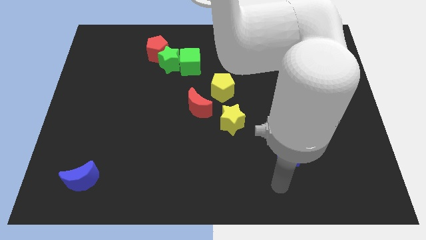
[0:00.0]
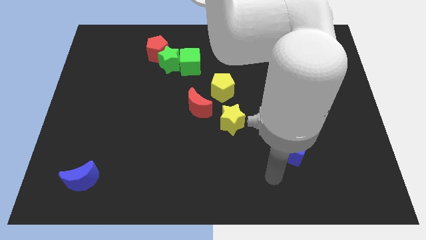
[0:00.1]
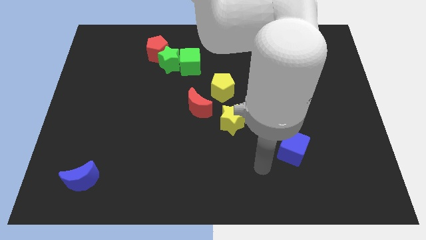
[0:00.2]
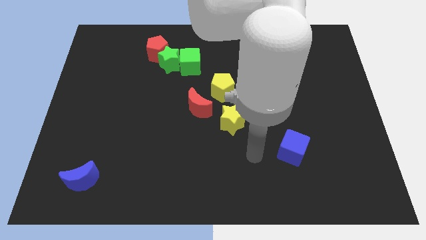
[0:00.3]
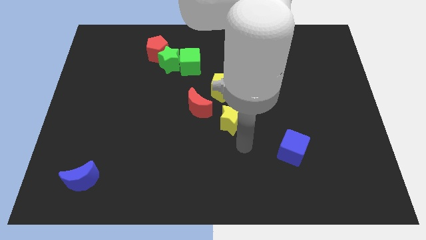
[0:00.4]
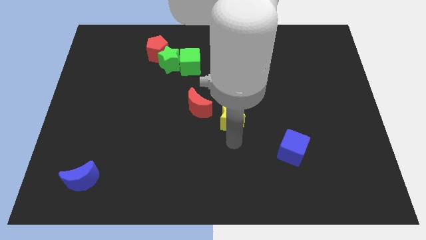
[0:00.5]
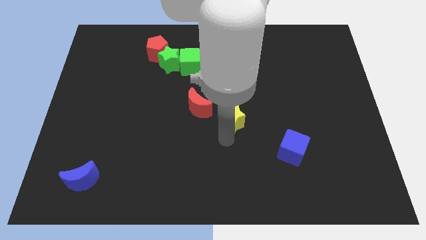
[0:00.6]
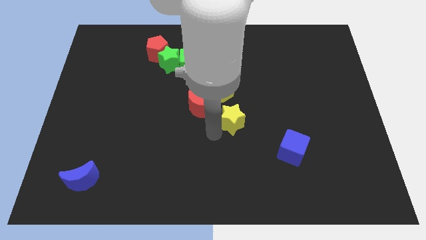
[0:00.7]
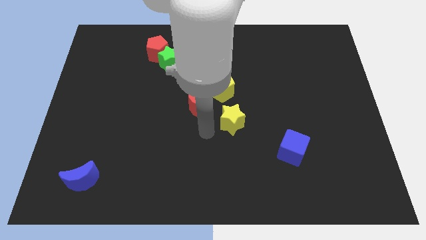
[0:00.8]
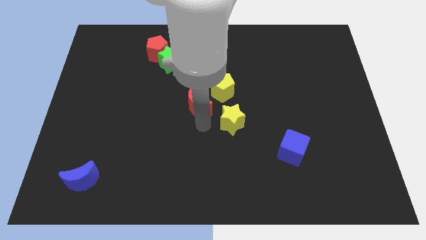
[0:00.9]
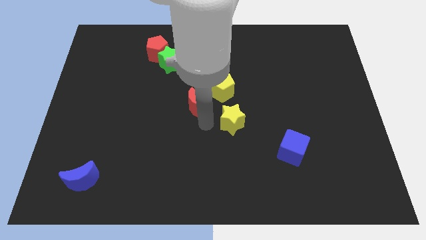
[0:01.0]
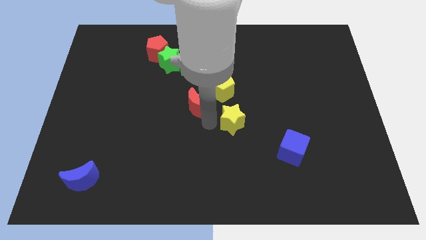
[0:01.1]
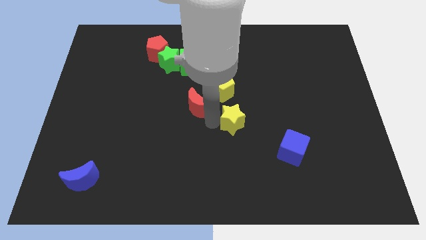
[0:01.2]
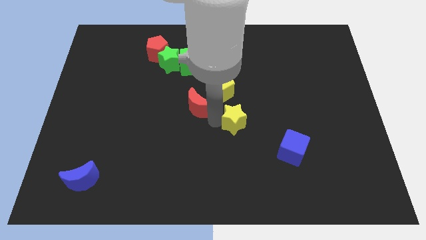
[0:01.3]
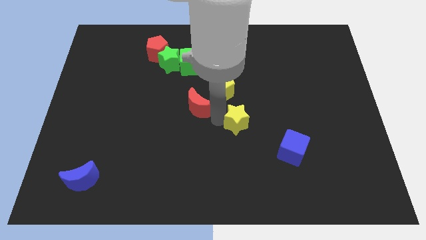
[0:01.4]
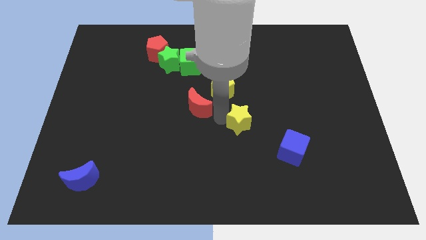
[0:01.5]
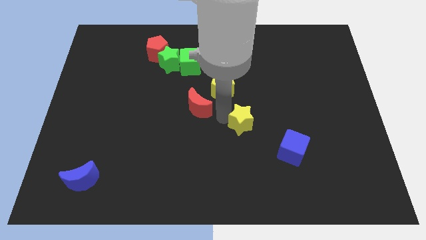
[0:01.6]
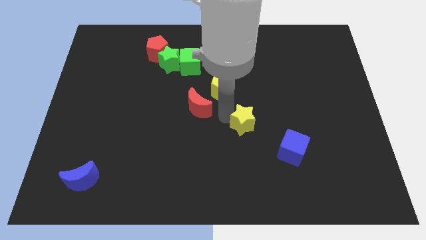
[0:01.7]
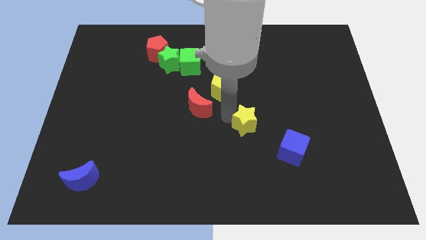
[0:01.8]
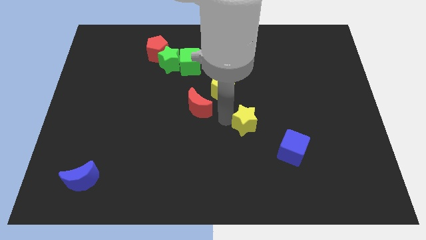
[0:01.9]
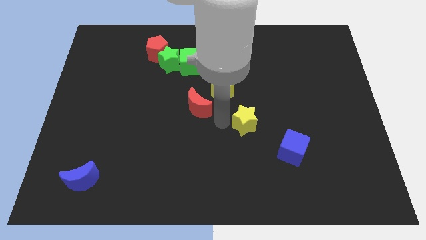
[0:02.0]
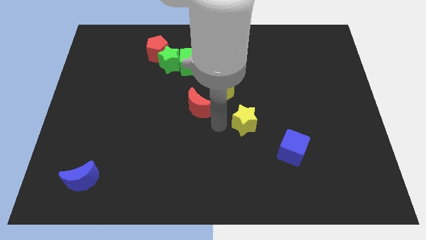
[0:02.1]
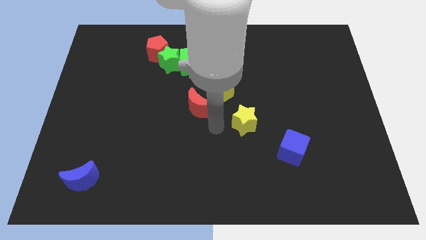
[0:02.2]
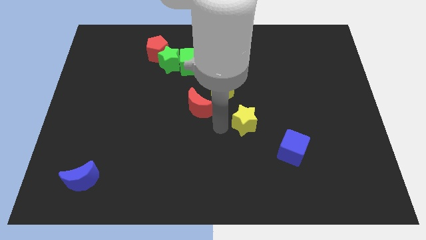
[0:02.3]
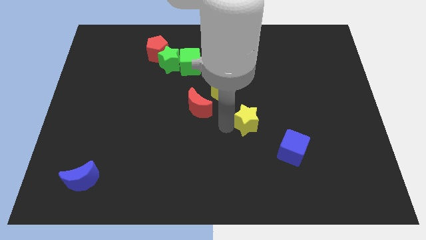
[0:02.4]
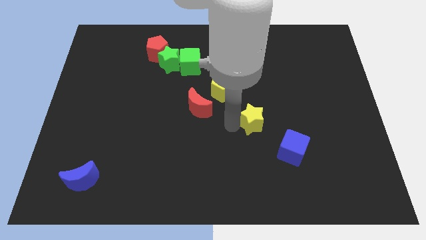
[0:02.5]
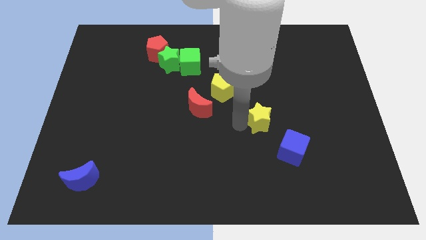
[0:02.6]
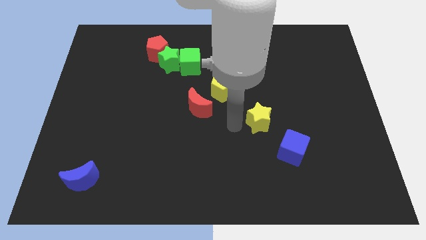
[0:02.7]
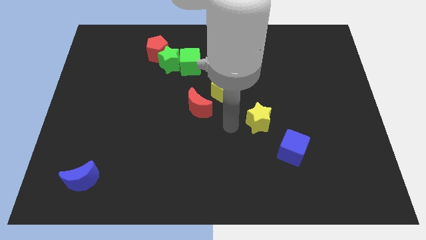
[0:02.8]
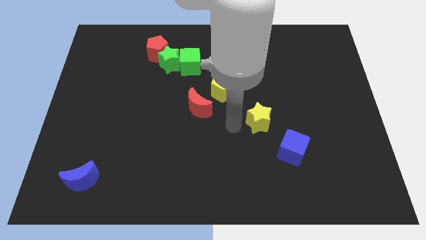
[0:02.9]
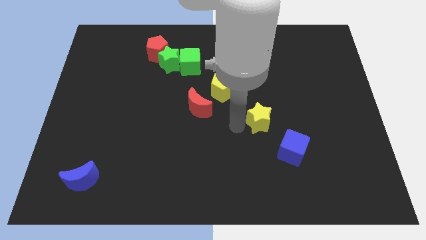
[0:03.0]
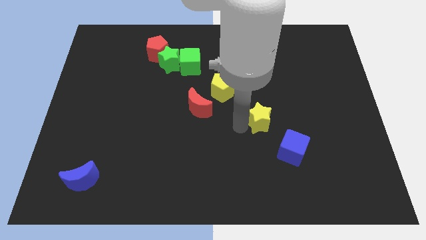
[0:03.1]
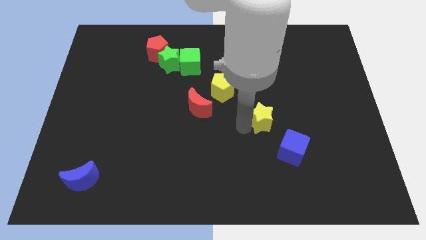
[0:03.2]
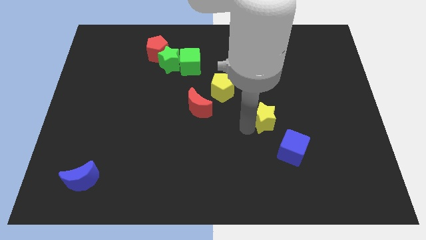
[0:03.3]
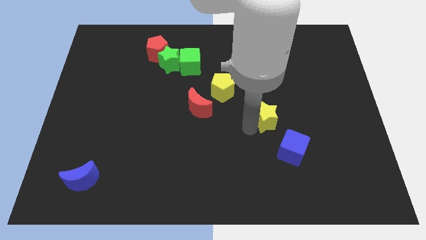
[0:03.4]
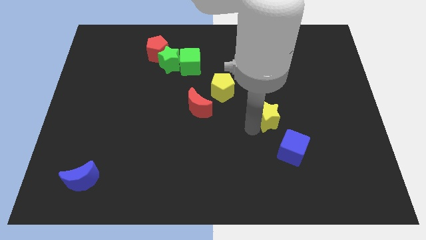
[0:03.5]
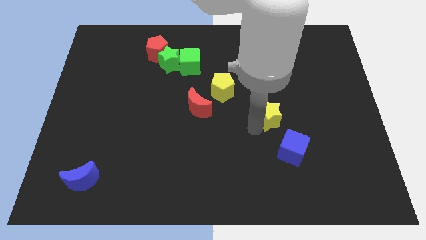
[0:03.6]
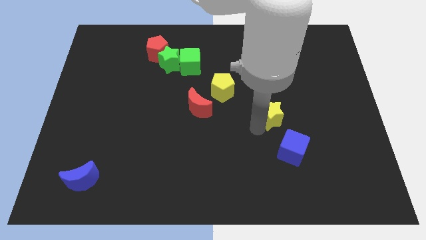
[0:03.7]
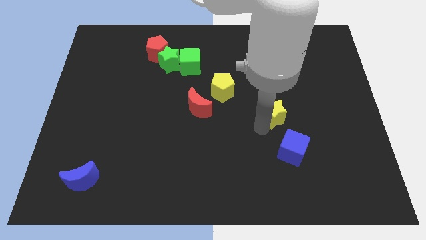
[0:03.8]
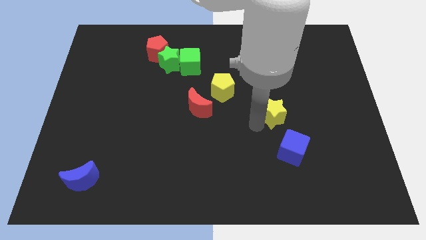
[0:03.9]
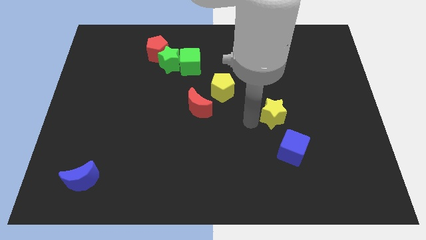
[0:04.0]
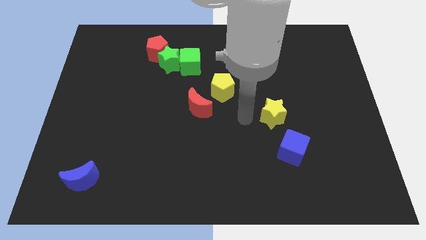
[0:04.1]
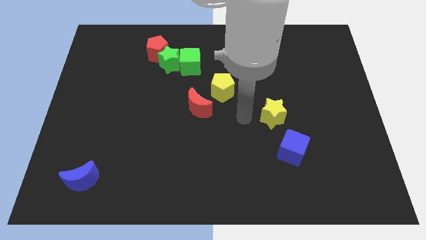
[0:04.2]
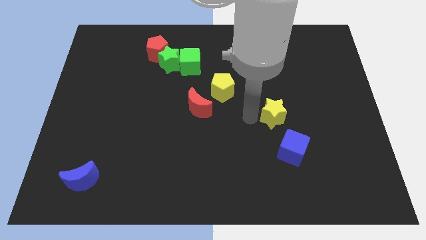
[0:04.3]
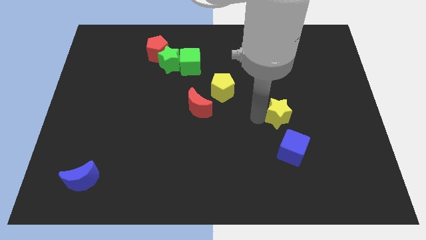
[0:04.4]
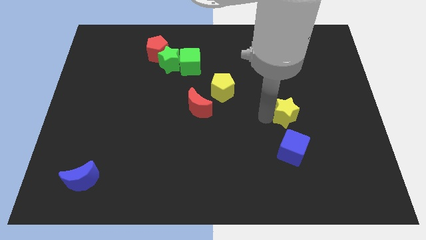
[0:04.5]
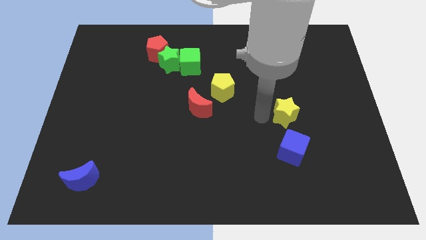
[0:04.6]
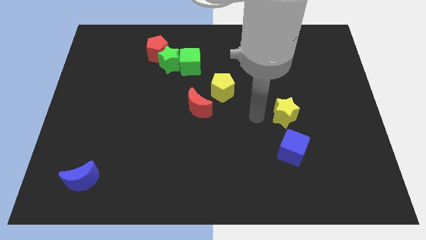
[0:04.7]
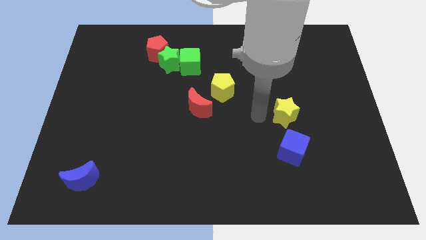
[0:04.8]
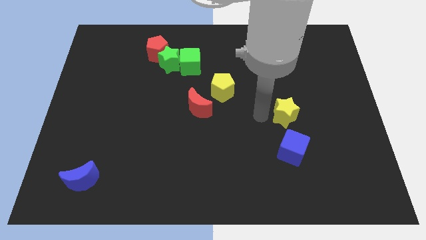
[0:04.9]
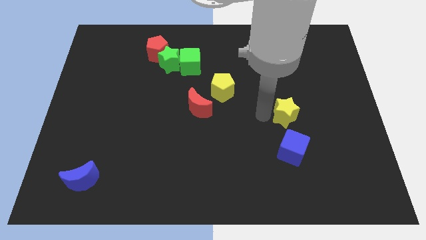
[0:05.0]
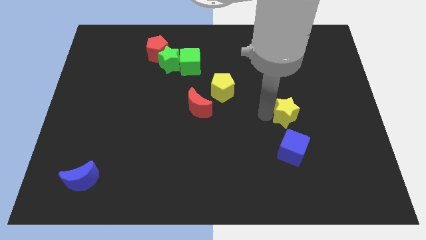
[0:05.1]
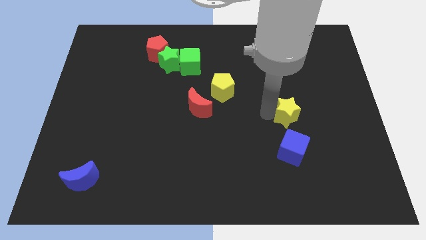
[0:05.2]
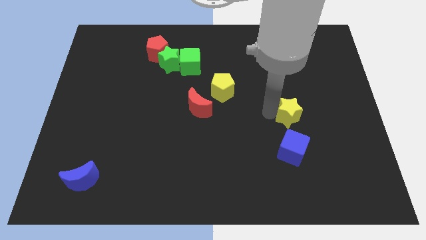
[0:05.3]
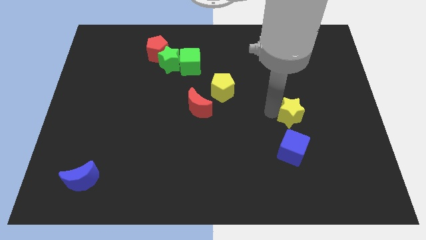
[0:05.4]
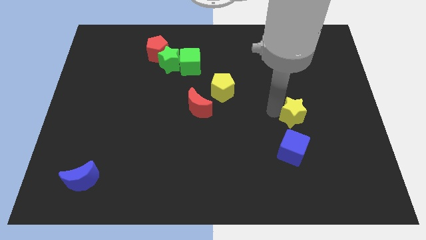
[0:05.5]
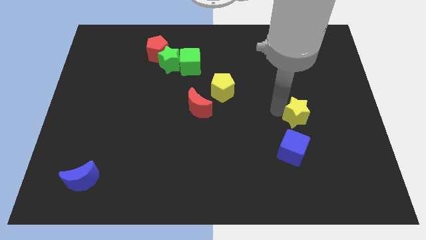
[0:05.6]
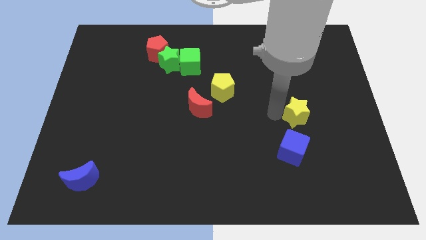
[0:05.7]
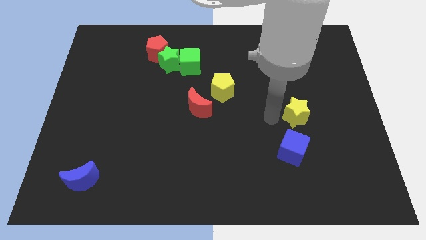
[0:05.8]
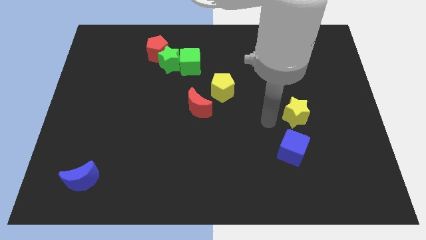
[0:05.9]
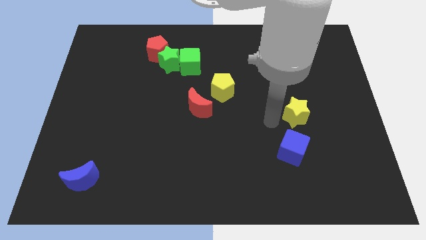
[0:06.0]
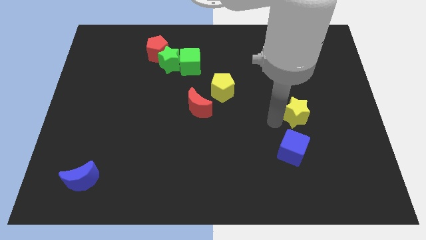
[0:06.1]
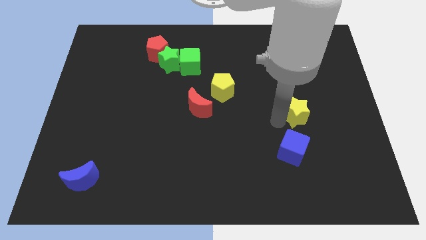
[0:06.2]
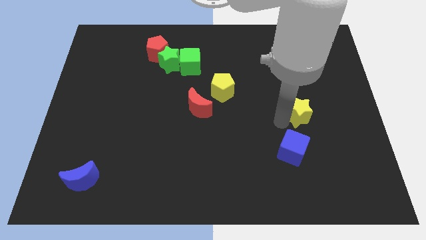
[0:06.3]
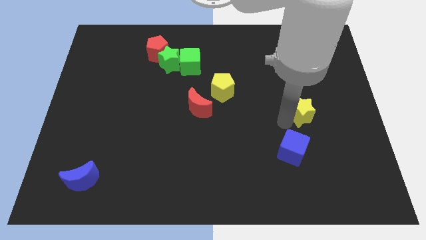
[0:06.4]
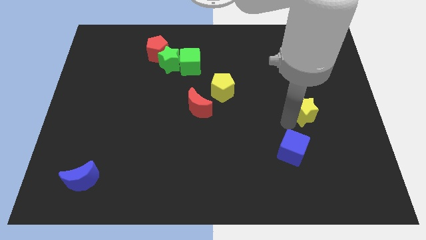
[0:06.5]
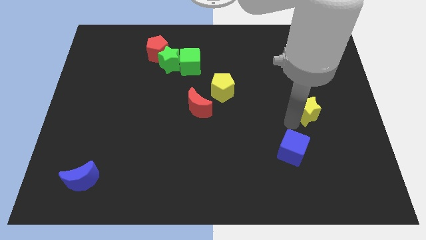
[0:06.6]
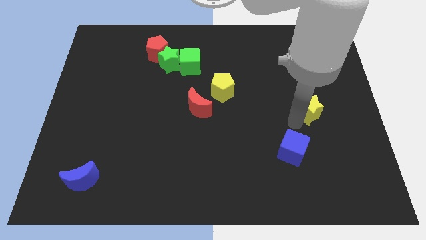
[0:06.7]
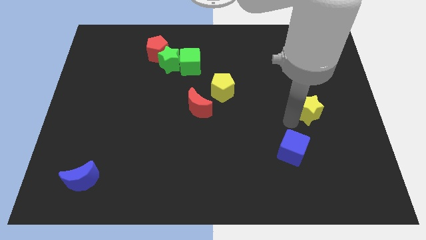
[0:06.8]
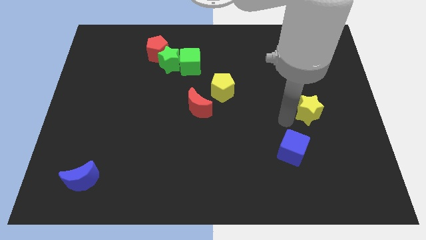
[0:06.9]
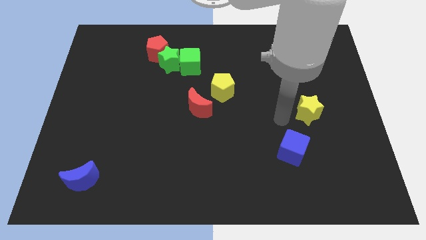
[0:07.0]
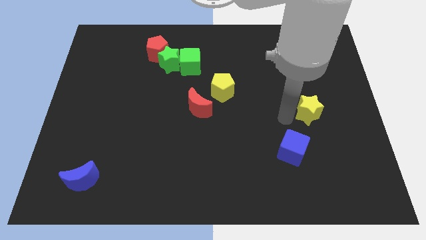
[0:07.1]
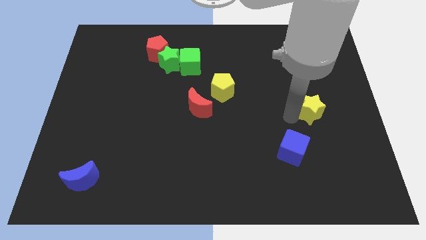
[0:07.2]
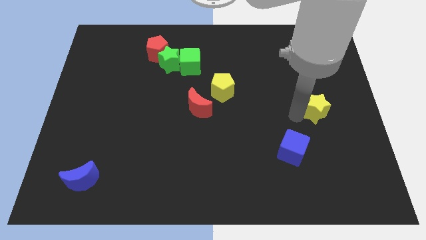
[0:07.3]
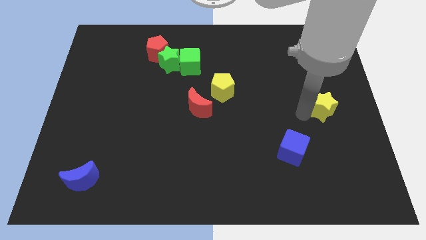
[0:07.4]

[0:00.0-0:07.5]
move the yellow star to the right side
